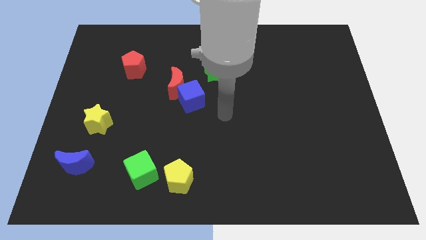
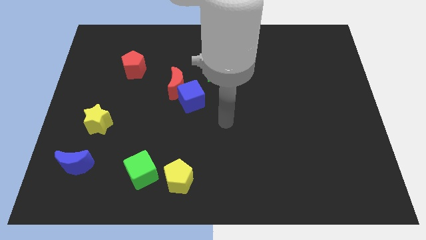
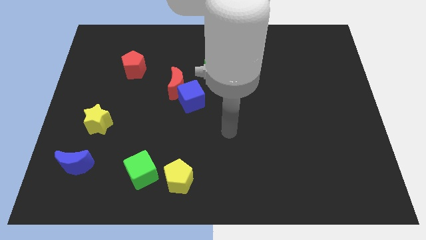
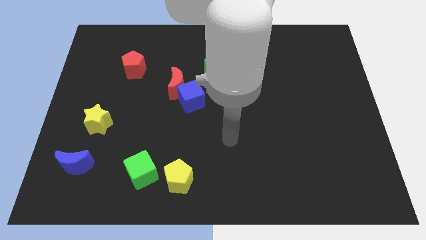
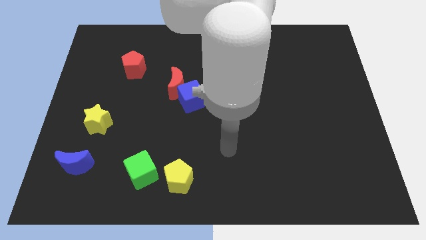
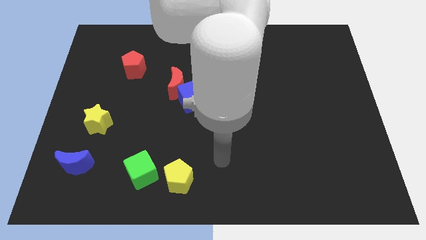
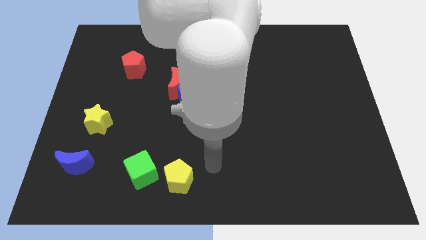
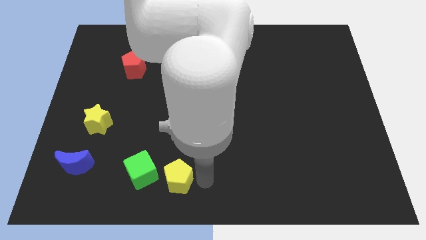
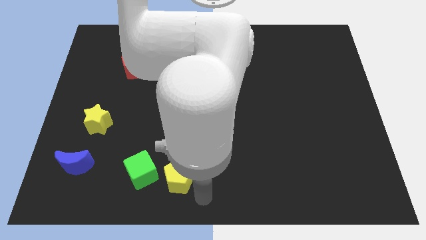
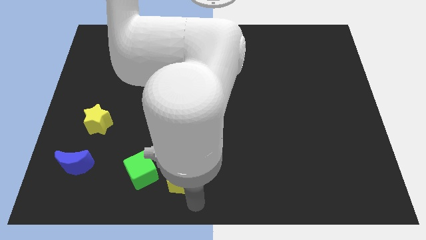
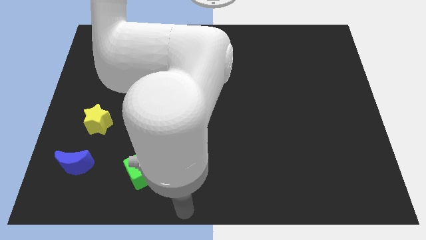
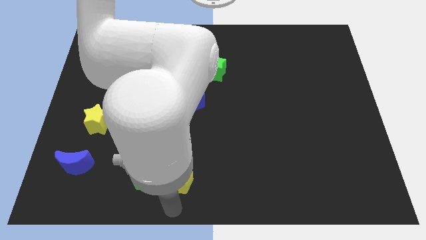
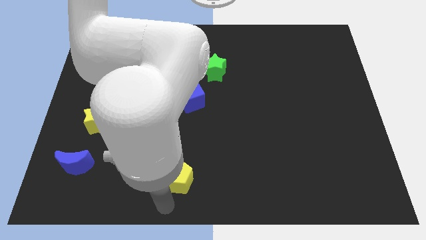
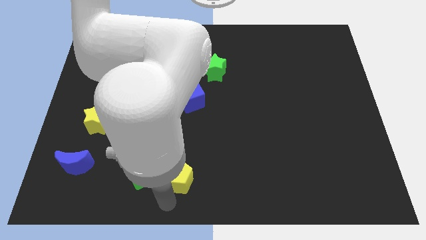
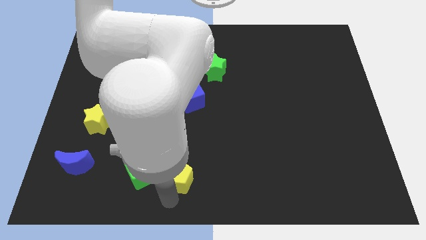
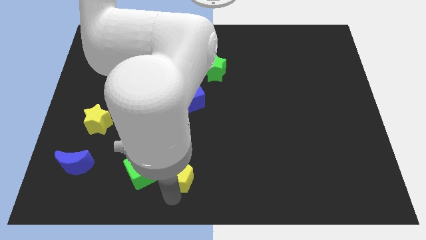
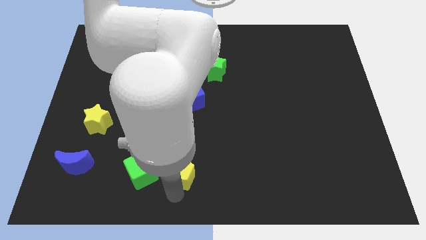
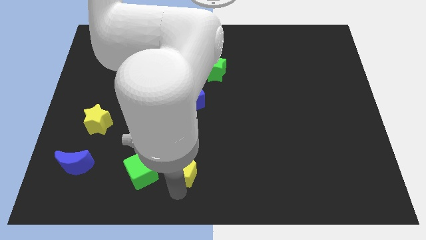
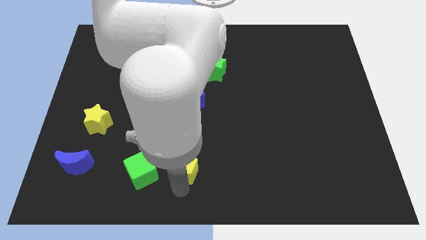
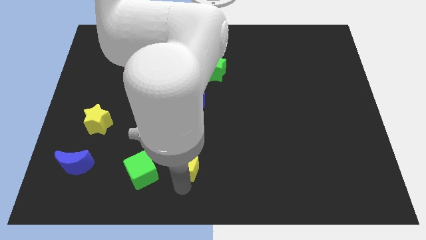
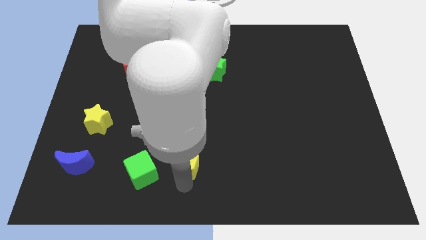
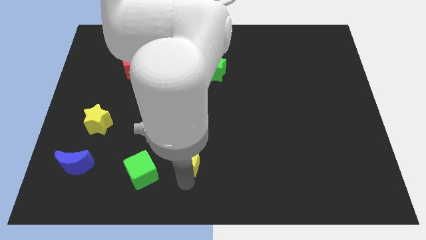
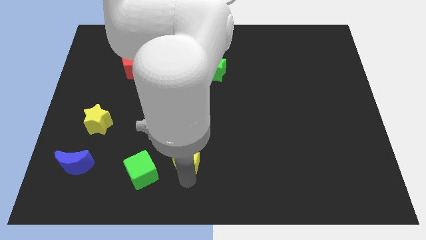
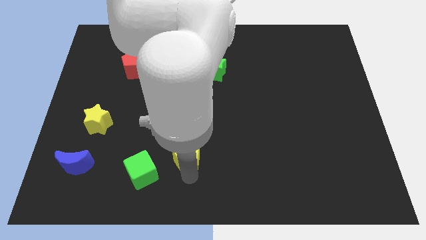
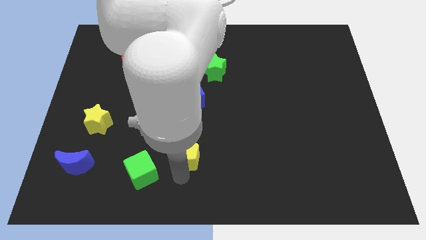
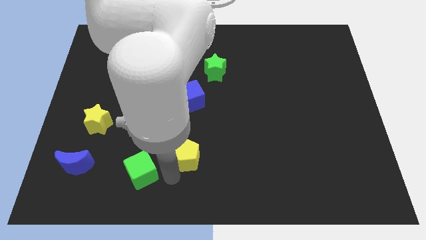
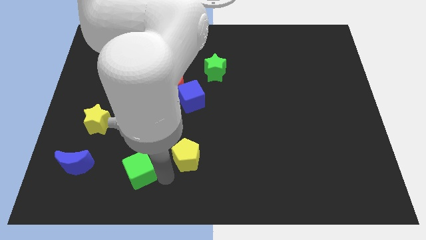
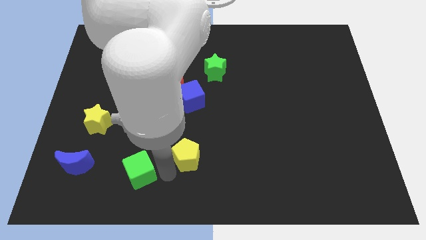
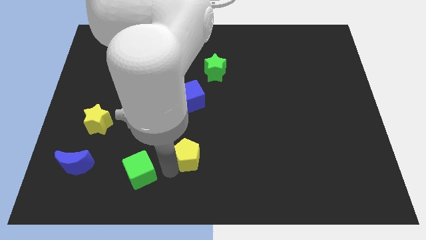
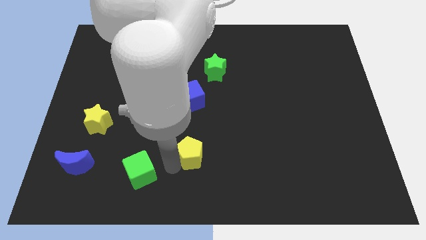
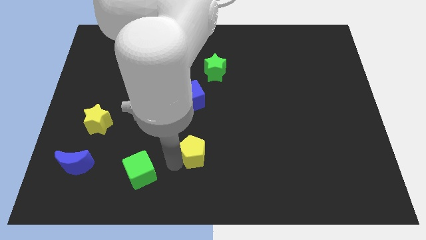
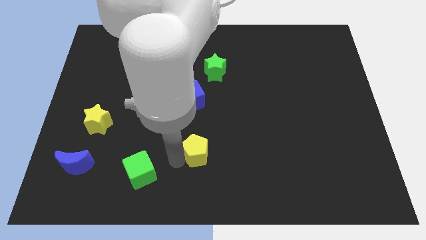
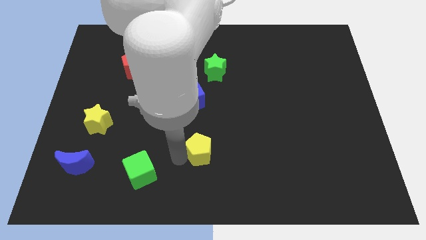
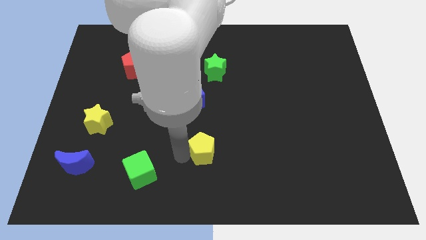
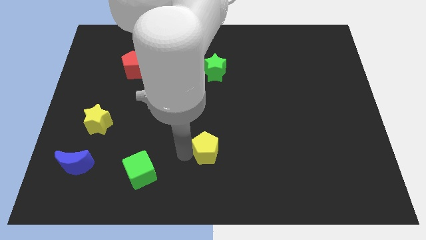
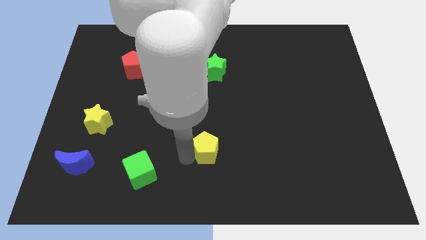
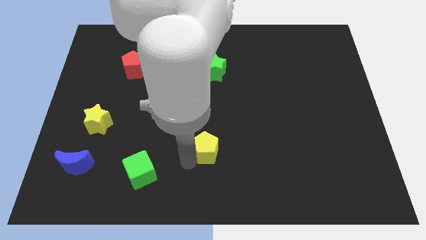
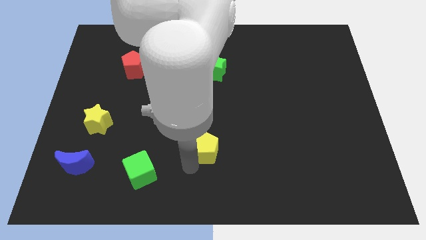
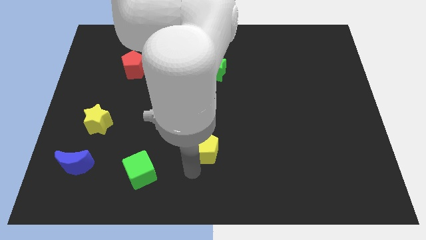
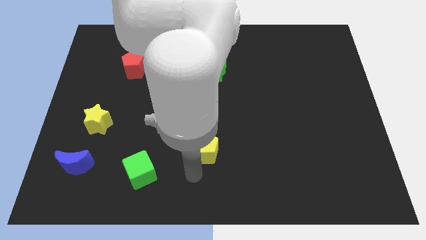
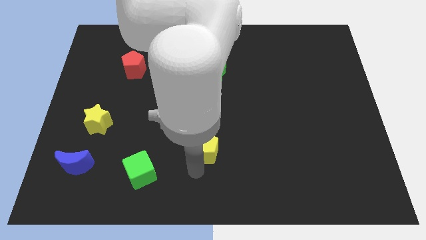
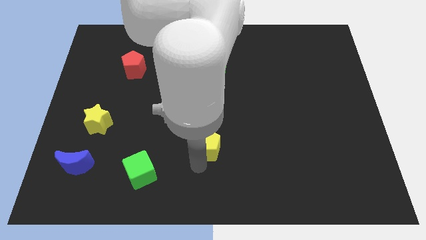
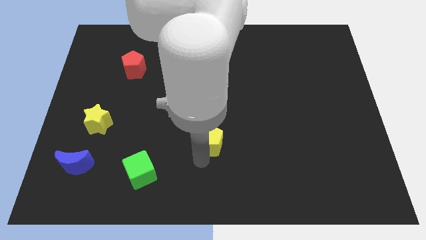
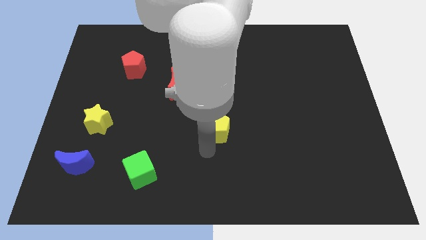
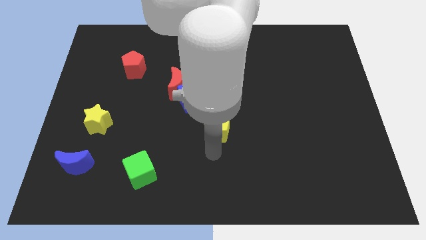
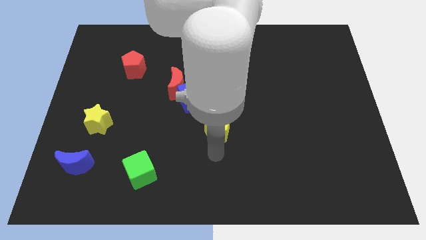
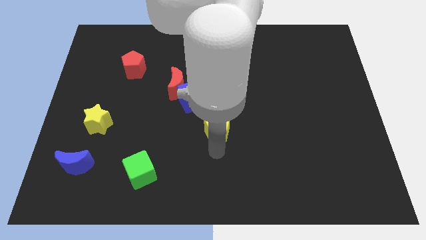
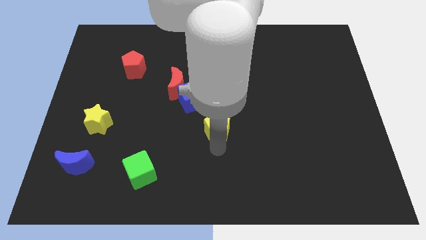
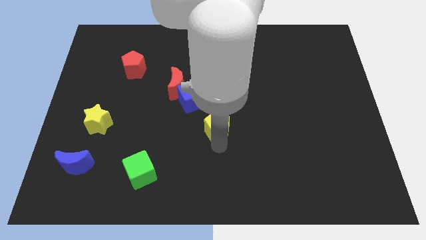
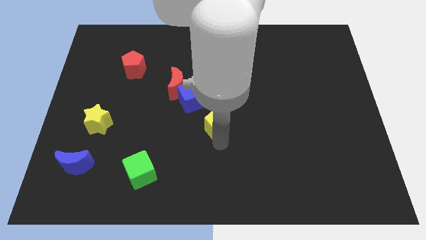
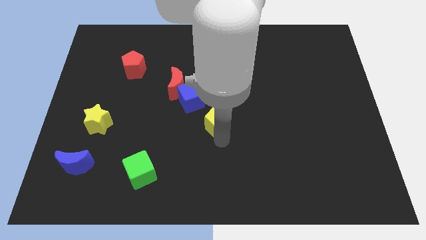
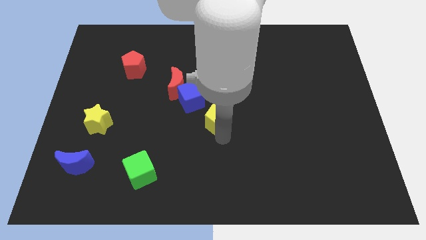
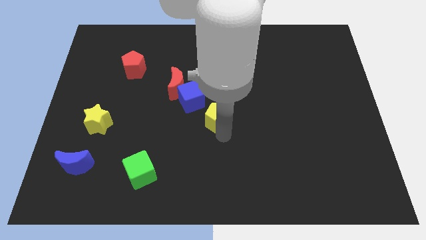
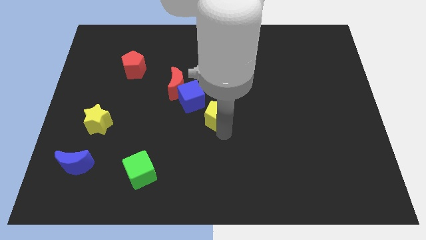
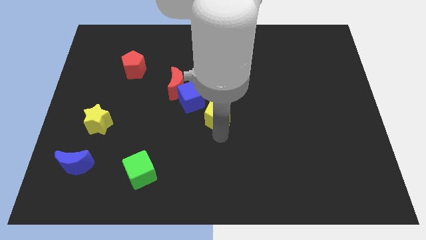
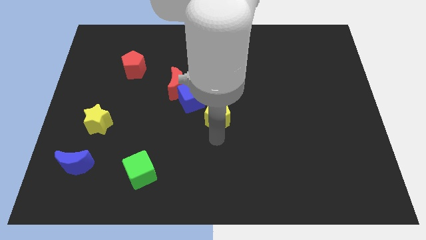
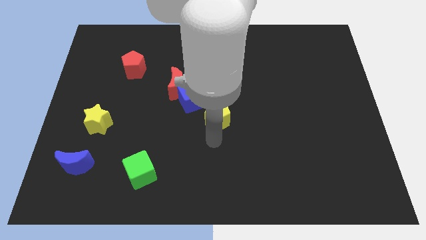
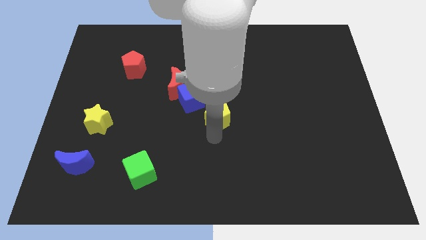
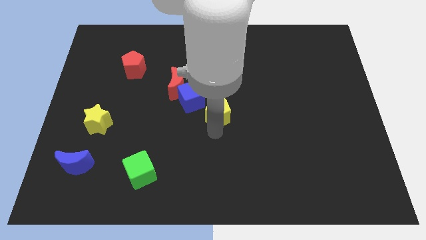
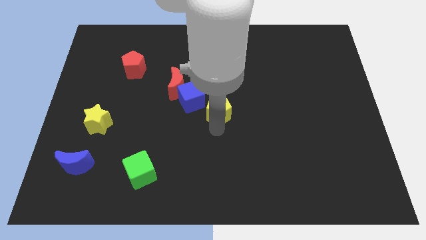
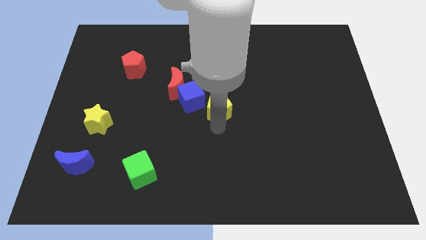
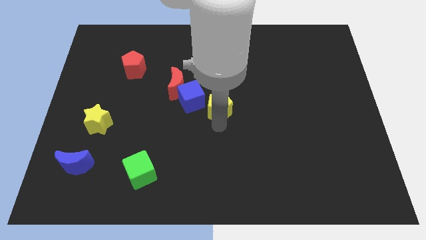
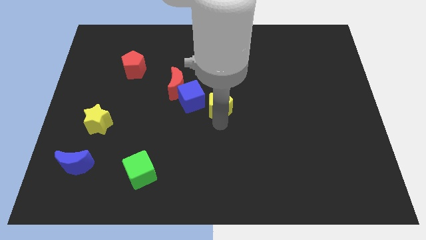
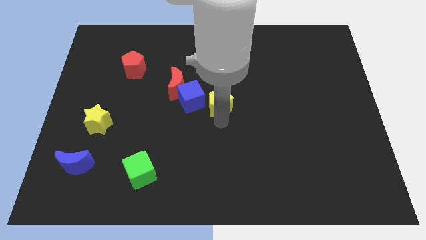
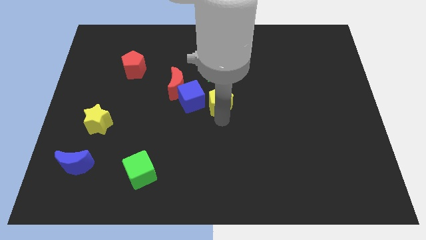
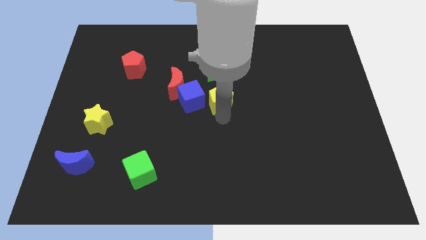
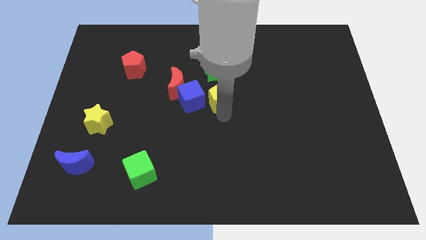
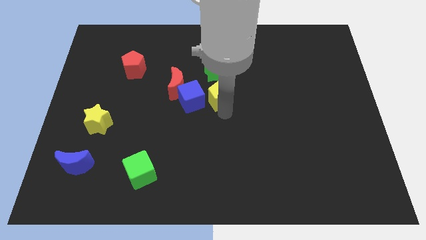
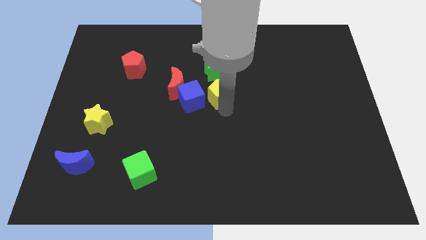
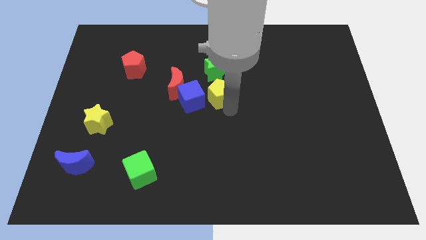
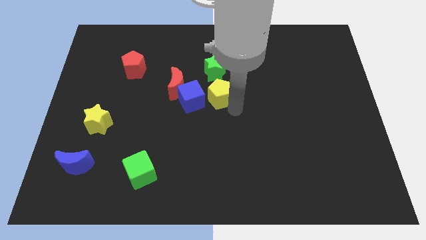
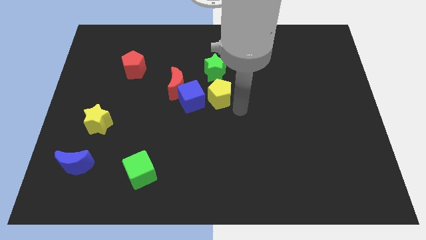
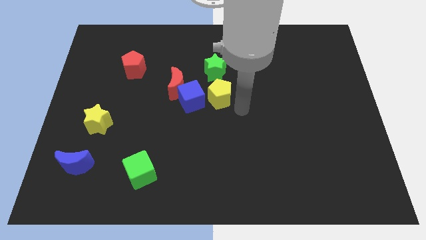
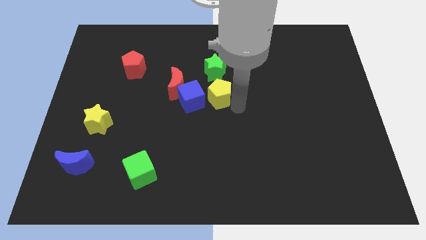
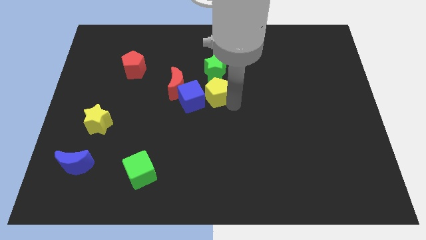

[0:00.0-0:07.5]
push the yellow pentagon up
